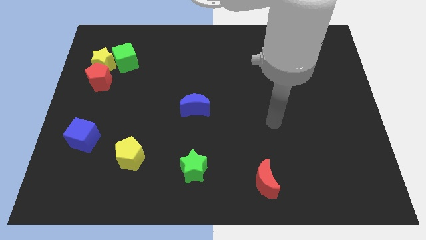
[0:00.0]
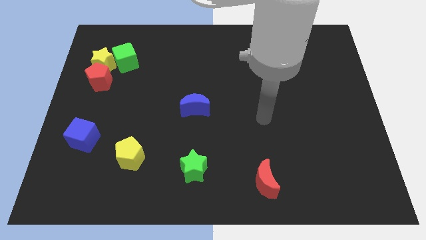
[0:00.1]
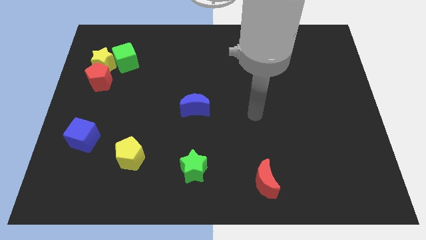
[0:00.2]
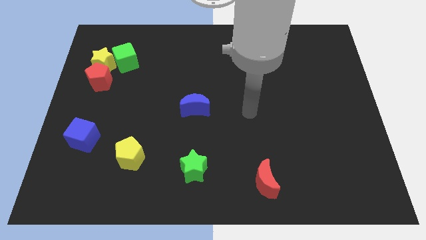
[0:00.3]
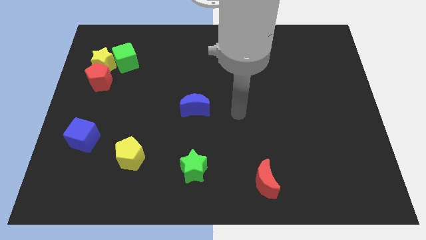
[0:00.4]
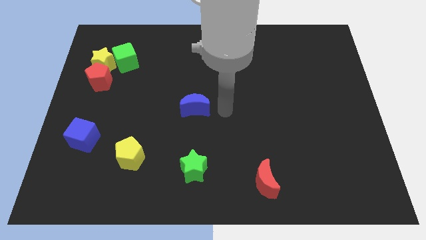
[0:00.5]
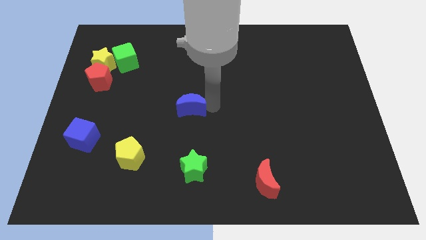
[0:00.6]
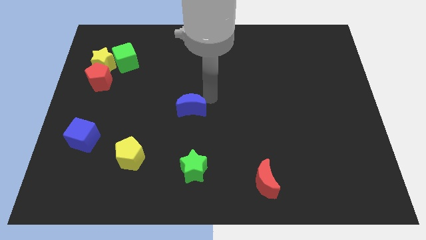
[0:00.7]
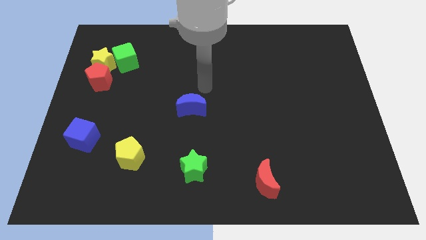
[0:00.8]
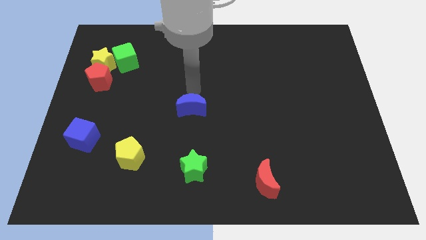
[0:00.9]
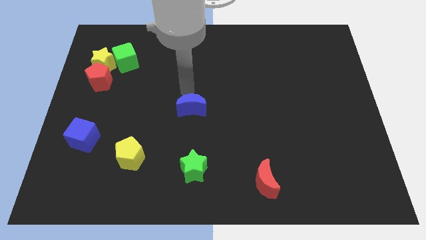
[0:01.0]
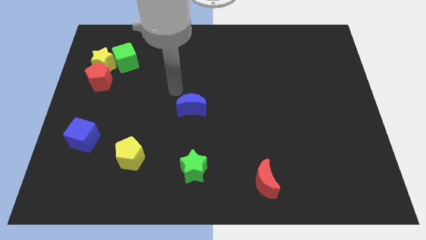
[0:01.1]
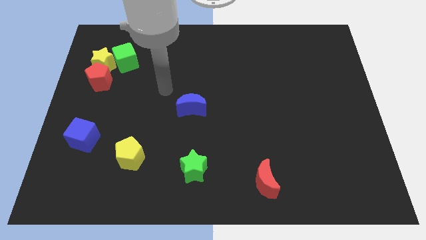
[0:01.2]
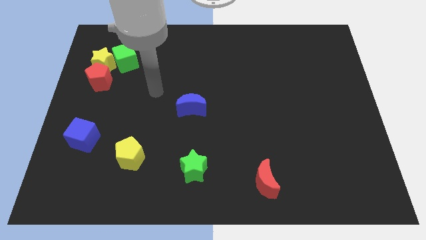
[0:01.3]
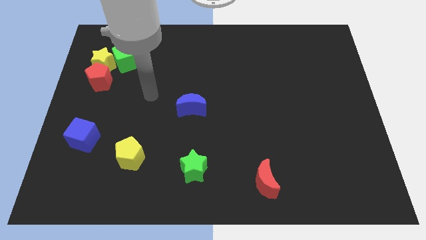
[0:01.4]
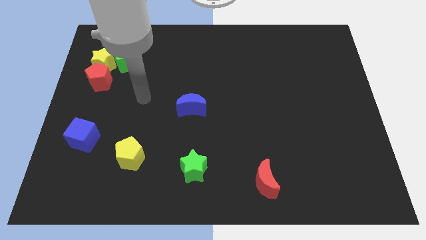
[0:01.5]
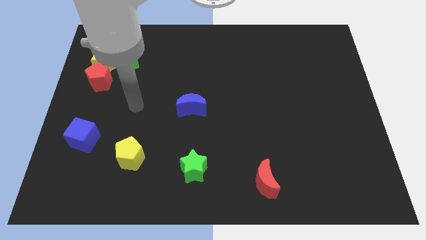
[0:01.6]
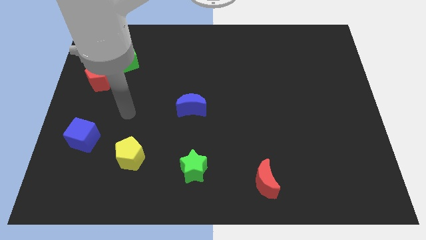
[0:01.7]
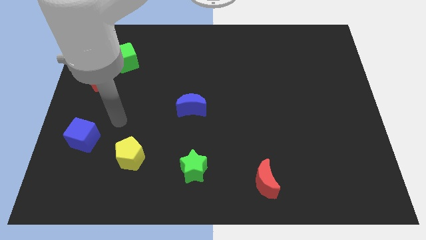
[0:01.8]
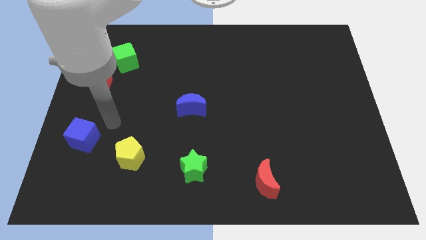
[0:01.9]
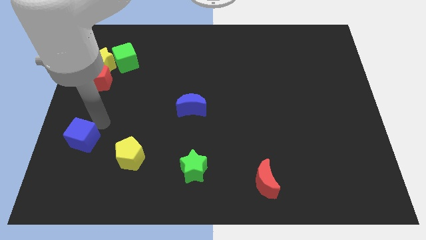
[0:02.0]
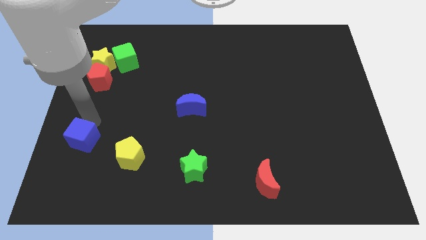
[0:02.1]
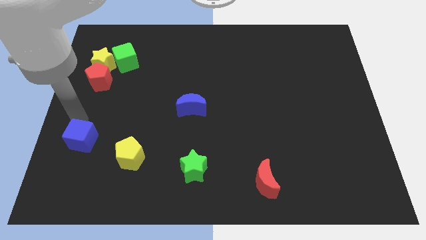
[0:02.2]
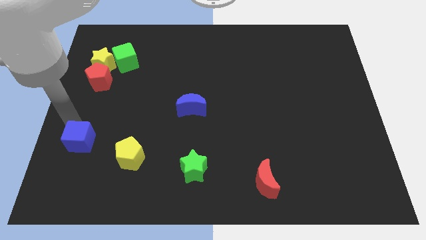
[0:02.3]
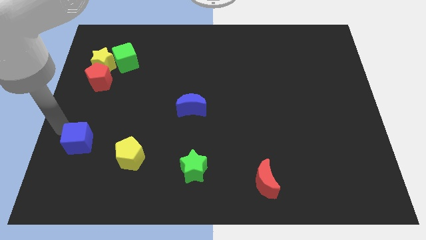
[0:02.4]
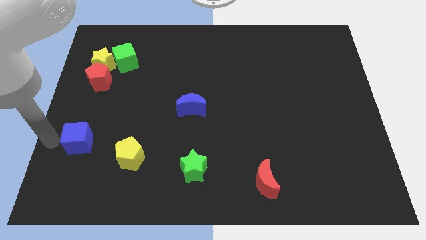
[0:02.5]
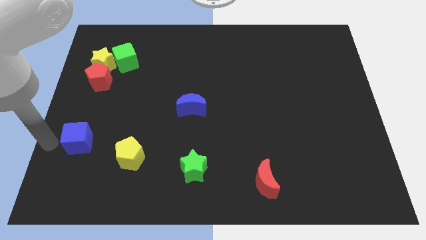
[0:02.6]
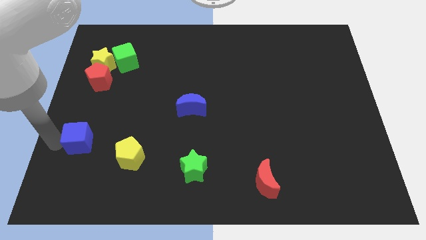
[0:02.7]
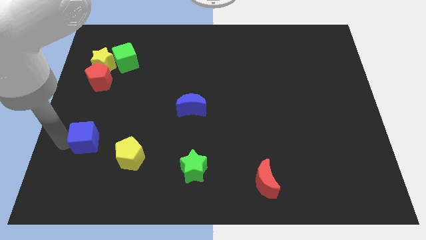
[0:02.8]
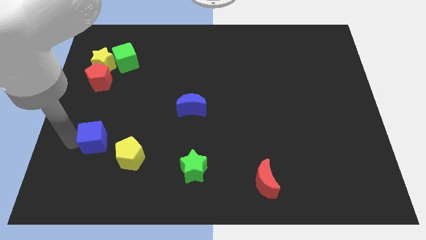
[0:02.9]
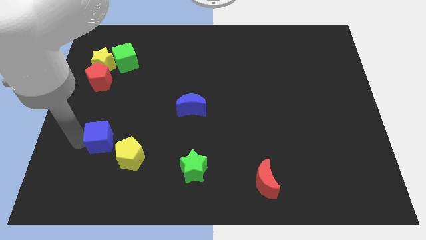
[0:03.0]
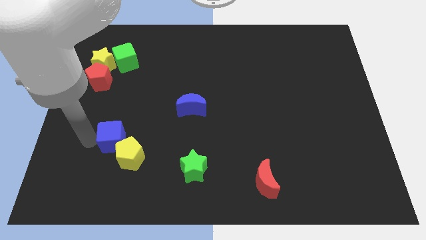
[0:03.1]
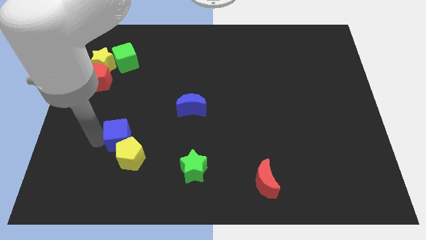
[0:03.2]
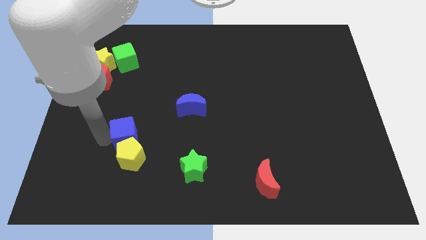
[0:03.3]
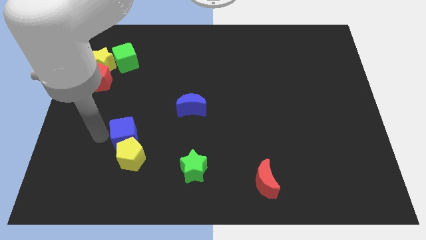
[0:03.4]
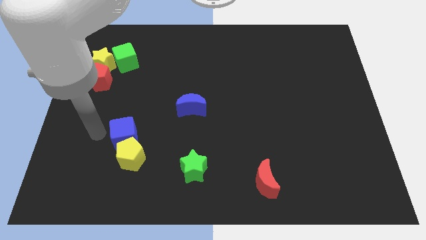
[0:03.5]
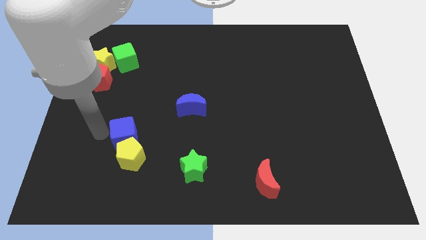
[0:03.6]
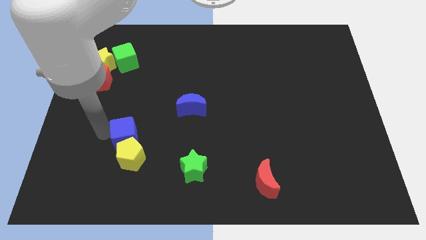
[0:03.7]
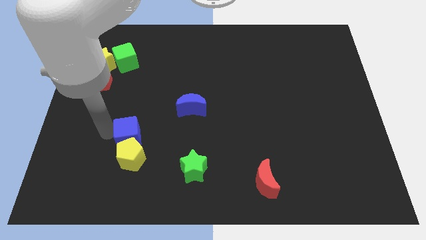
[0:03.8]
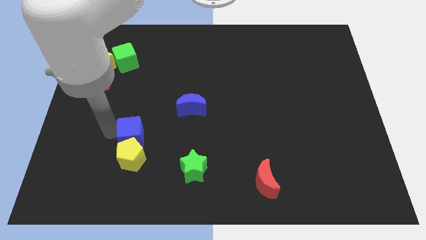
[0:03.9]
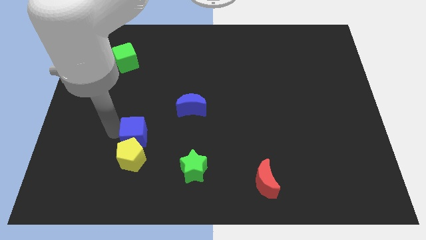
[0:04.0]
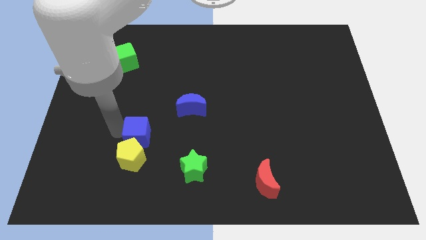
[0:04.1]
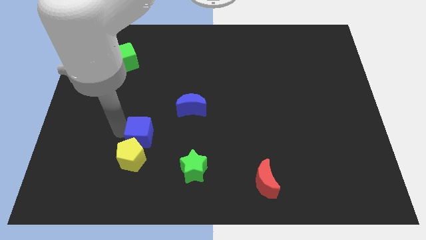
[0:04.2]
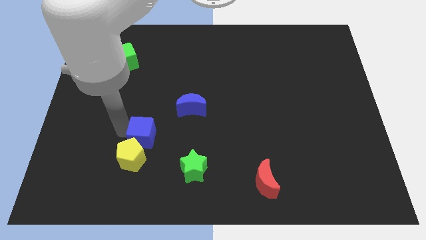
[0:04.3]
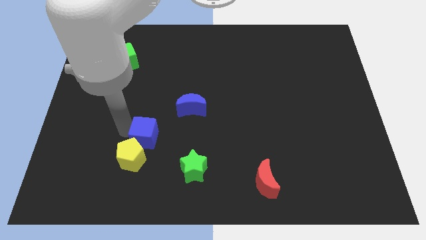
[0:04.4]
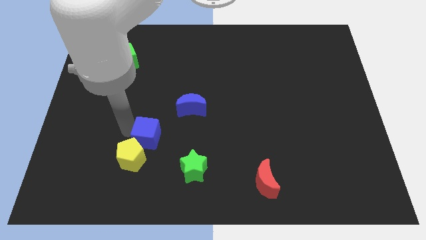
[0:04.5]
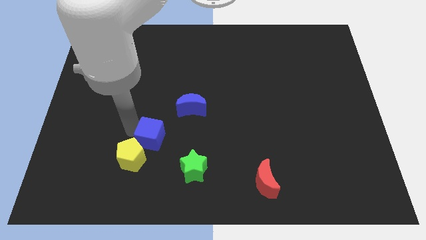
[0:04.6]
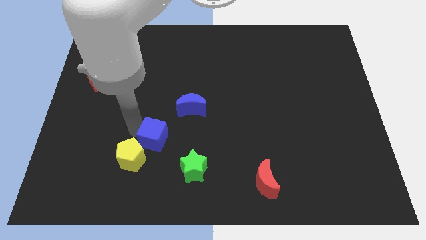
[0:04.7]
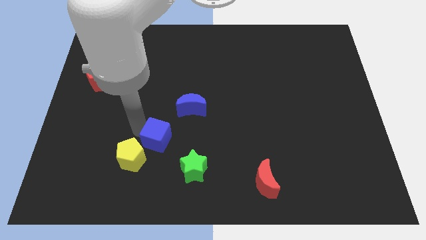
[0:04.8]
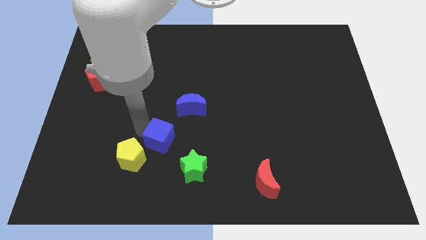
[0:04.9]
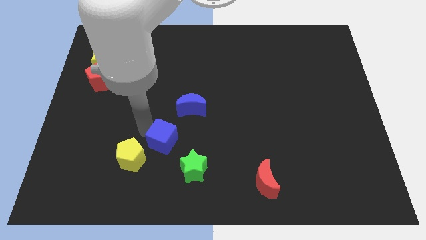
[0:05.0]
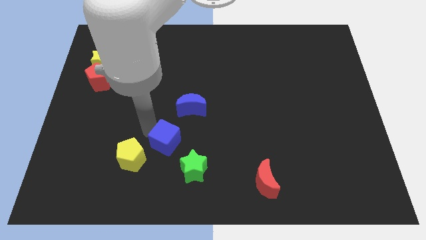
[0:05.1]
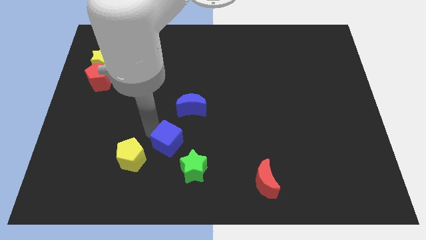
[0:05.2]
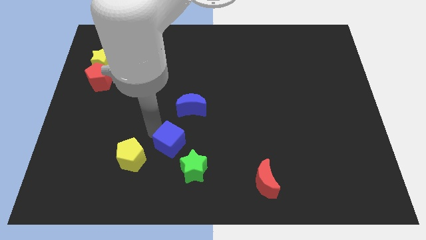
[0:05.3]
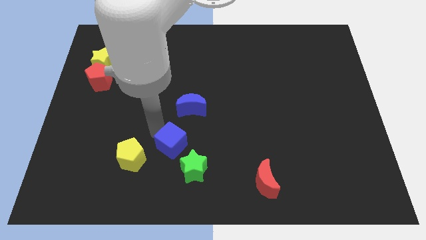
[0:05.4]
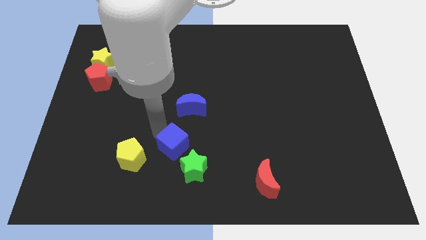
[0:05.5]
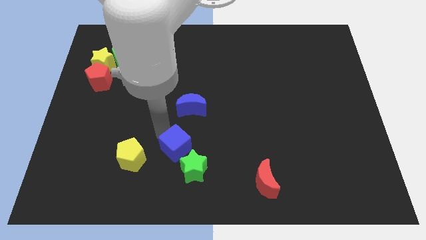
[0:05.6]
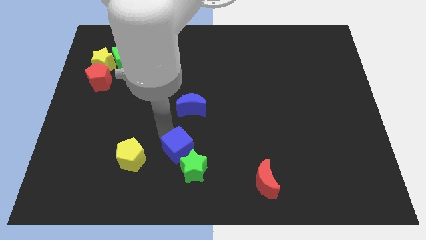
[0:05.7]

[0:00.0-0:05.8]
push the blue cube to the green star

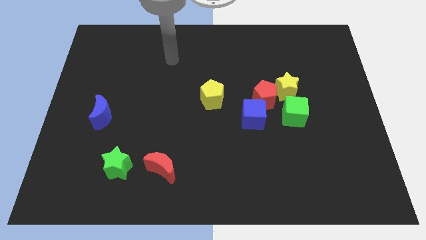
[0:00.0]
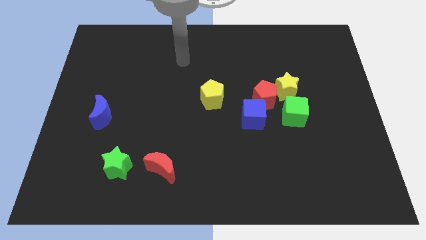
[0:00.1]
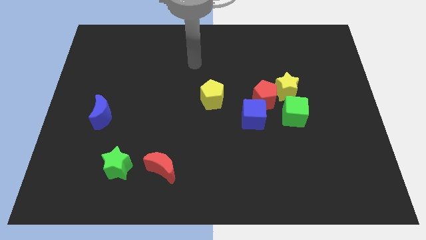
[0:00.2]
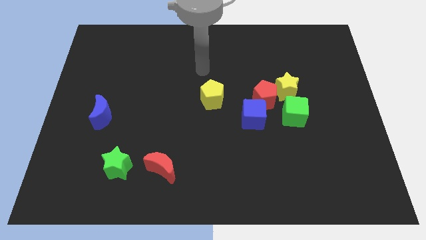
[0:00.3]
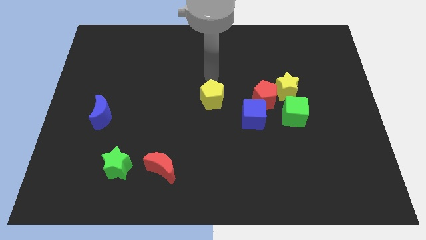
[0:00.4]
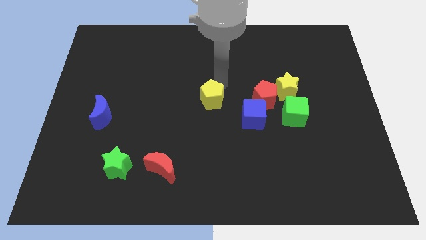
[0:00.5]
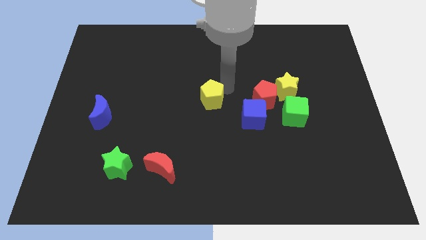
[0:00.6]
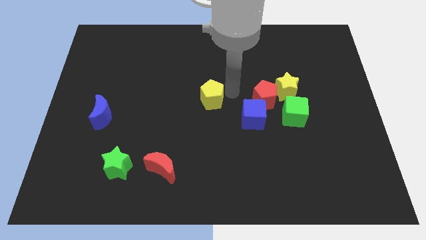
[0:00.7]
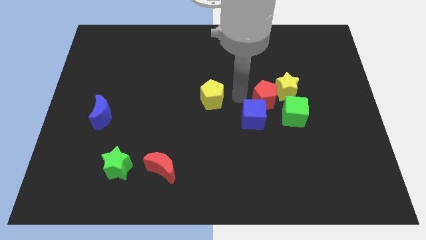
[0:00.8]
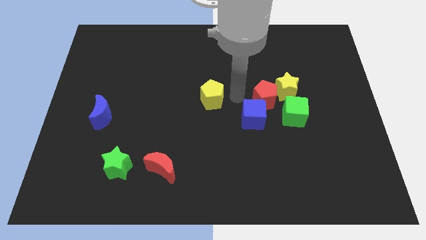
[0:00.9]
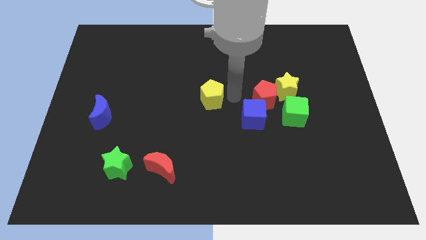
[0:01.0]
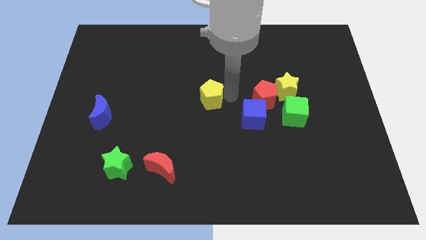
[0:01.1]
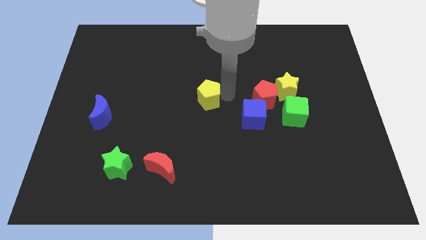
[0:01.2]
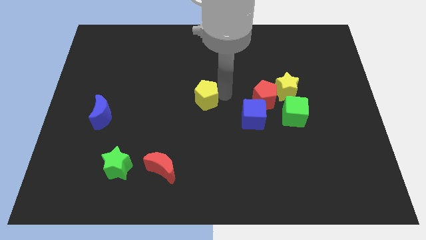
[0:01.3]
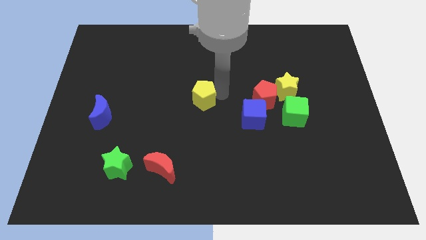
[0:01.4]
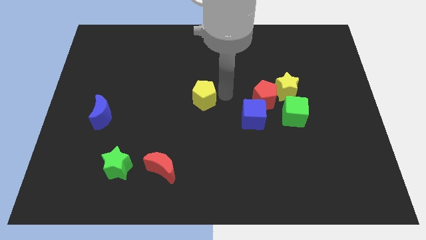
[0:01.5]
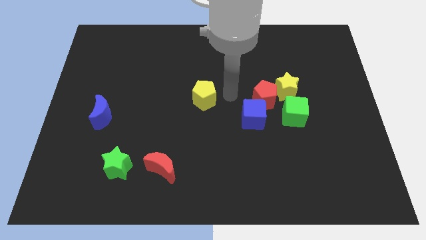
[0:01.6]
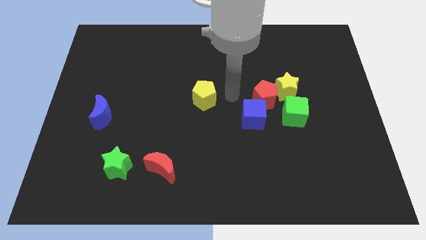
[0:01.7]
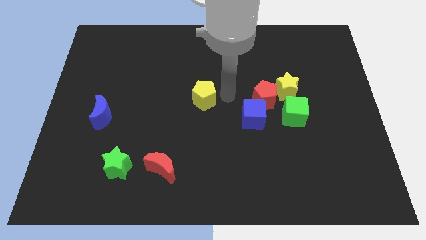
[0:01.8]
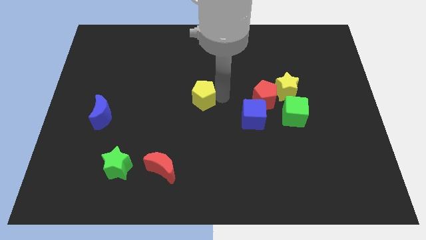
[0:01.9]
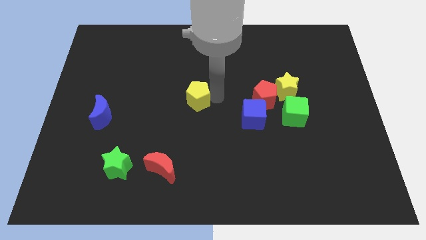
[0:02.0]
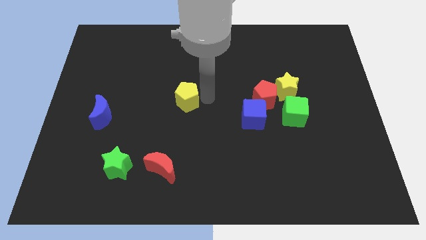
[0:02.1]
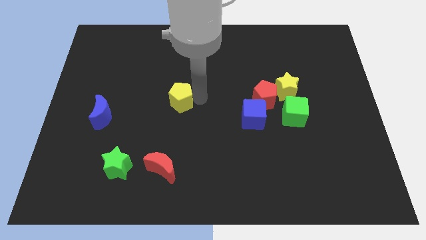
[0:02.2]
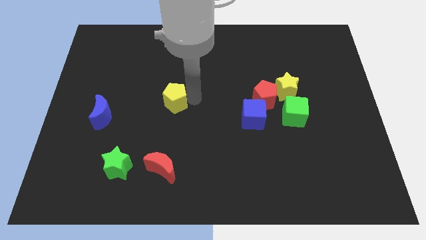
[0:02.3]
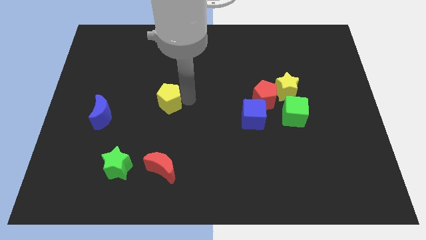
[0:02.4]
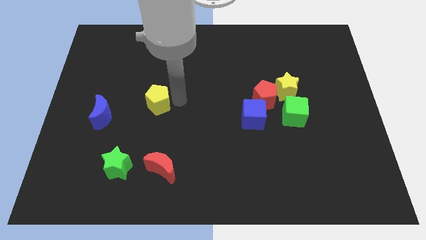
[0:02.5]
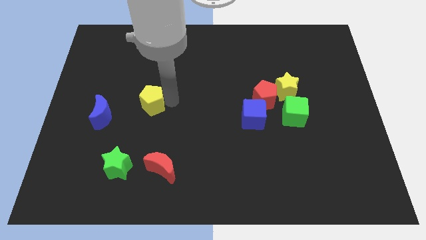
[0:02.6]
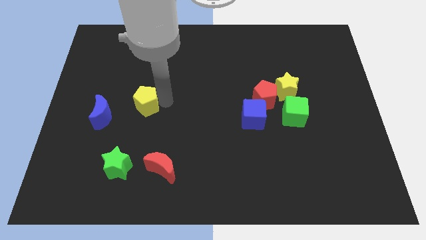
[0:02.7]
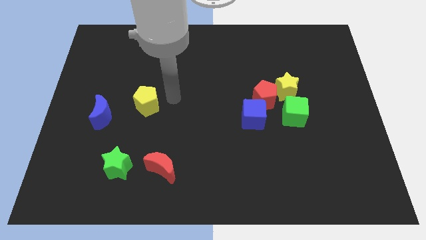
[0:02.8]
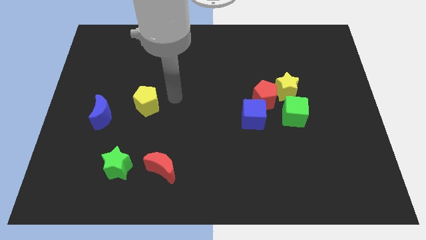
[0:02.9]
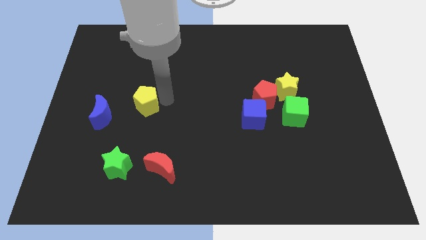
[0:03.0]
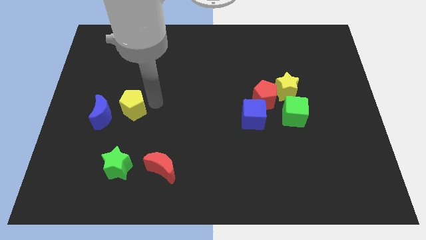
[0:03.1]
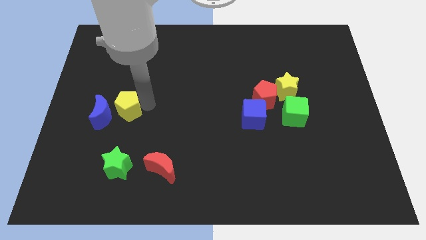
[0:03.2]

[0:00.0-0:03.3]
slide the yellow pentagon to the blue moon
